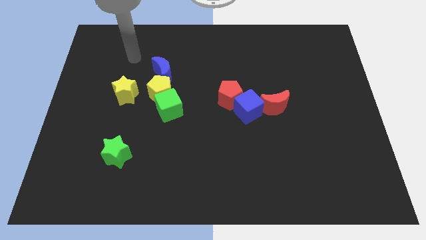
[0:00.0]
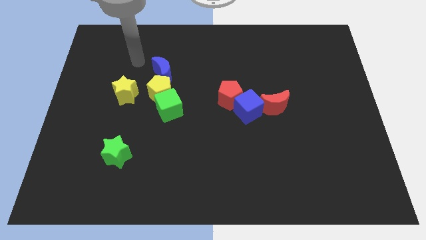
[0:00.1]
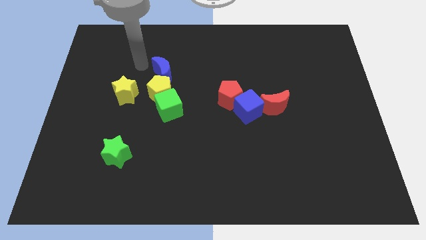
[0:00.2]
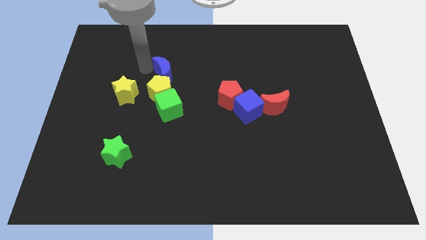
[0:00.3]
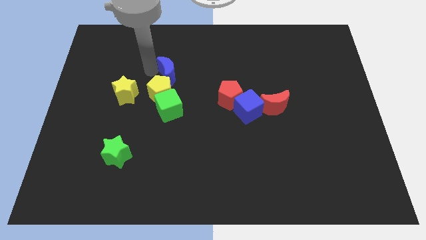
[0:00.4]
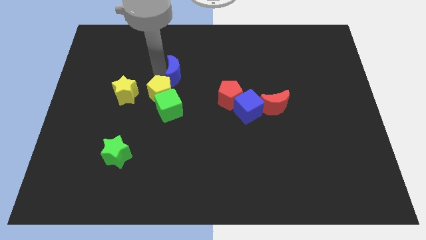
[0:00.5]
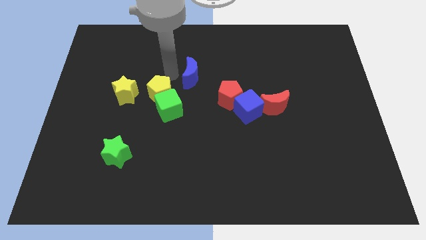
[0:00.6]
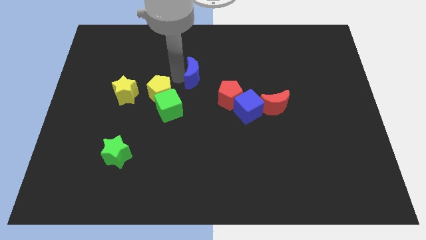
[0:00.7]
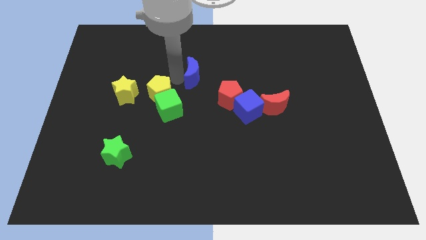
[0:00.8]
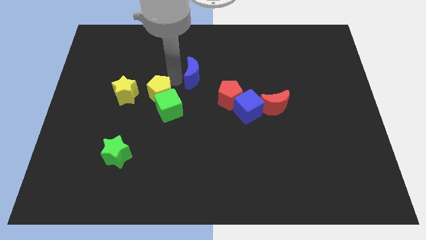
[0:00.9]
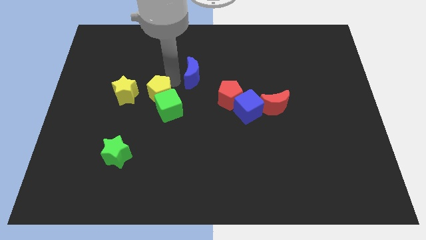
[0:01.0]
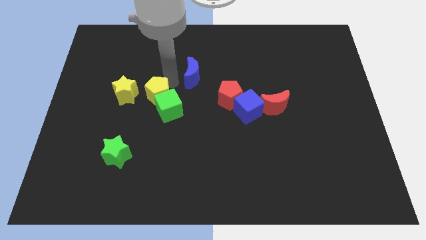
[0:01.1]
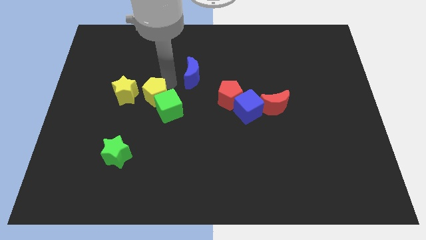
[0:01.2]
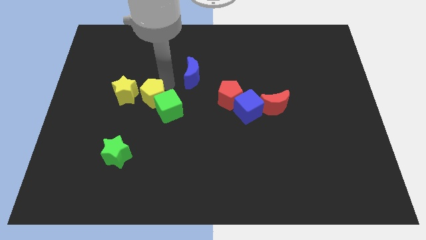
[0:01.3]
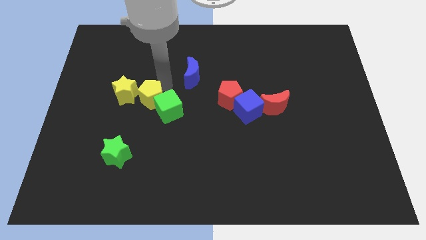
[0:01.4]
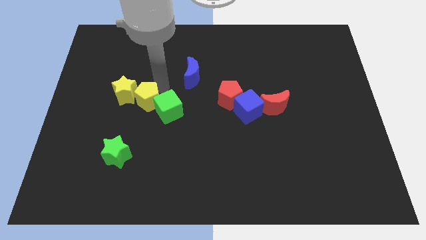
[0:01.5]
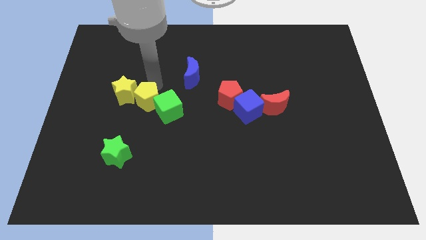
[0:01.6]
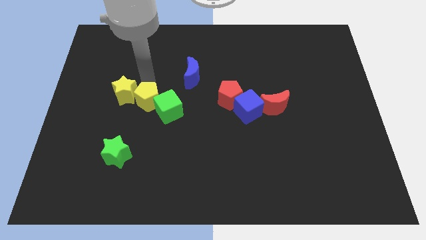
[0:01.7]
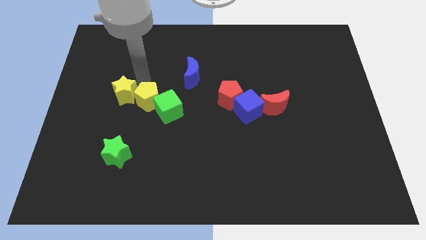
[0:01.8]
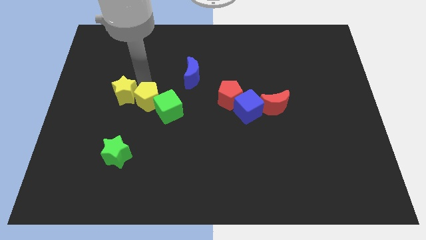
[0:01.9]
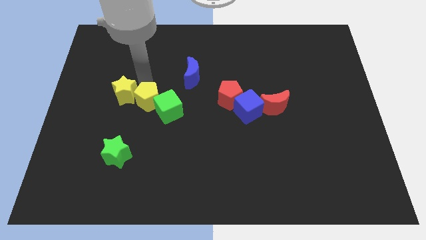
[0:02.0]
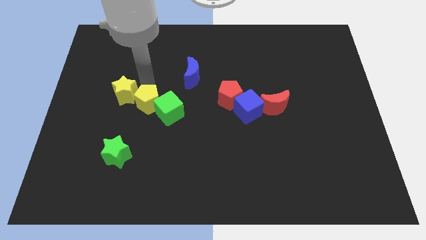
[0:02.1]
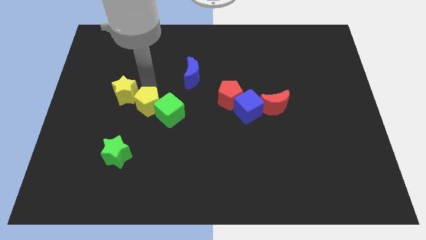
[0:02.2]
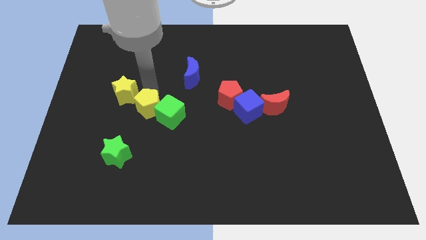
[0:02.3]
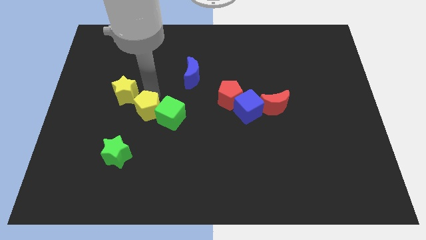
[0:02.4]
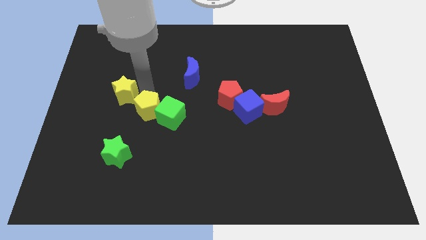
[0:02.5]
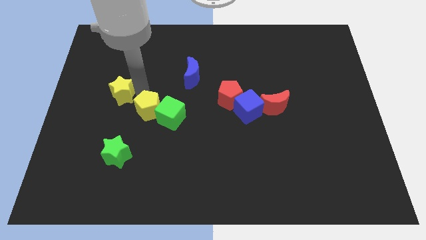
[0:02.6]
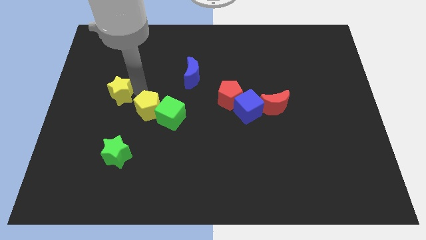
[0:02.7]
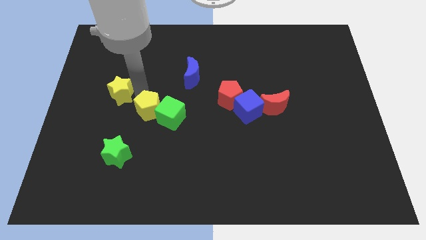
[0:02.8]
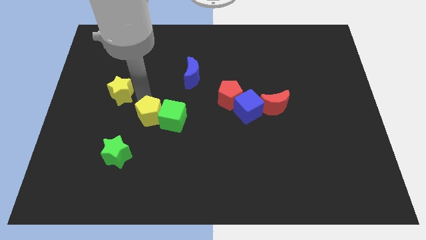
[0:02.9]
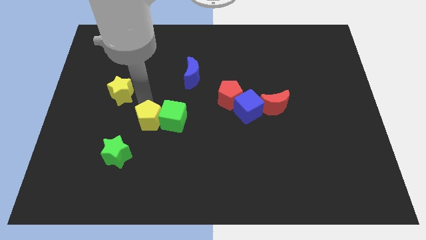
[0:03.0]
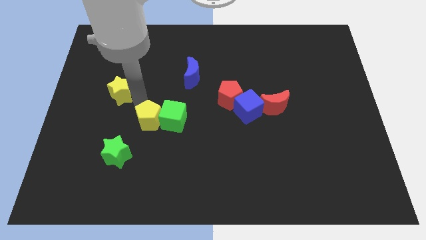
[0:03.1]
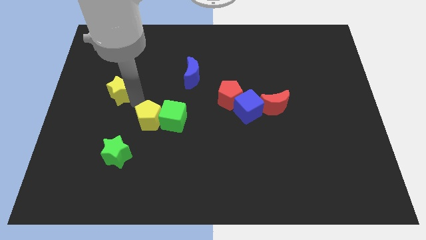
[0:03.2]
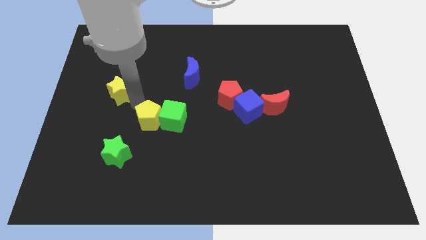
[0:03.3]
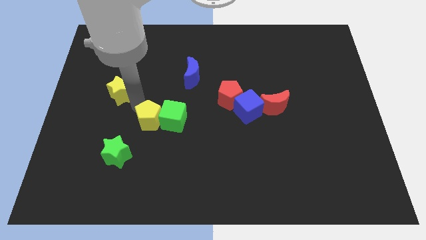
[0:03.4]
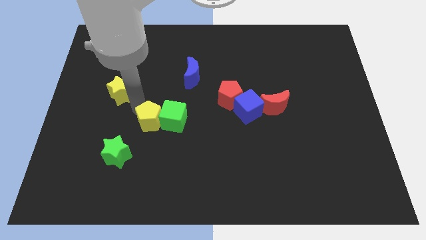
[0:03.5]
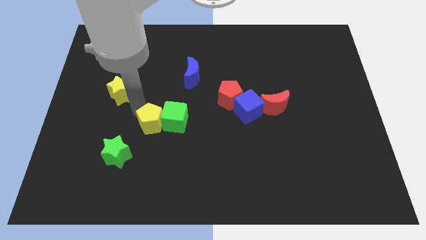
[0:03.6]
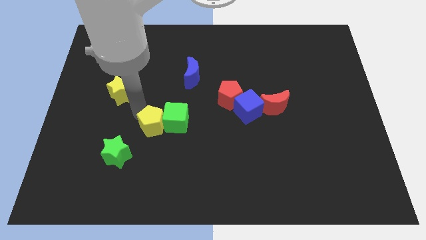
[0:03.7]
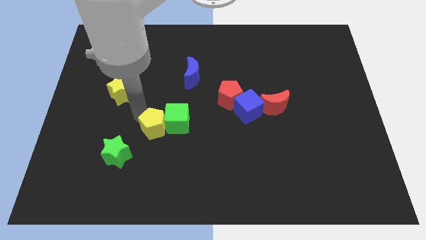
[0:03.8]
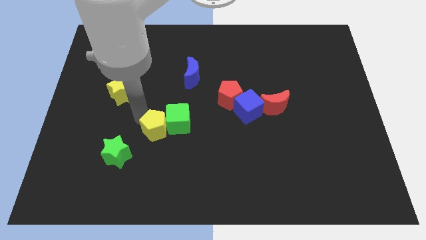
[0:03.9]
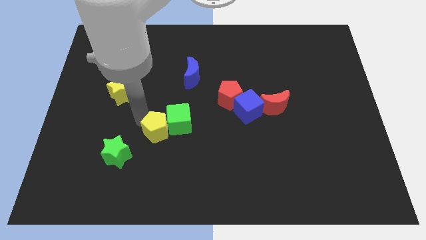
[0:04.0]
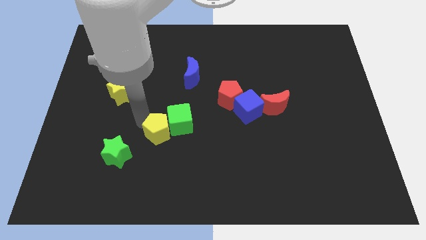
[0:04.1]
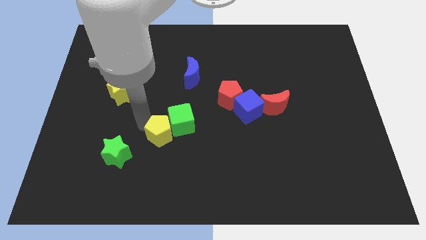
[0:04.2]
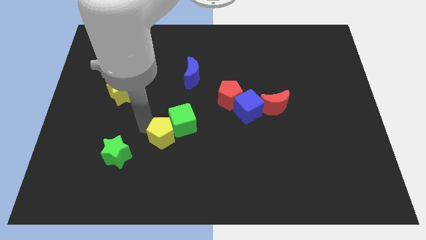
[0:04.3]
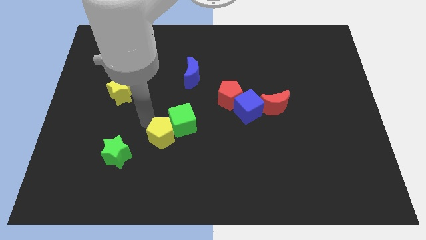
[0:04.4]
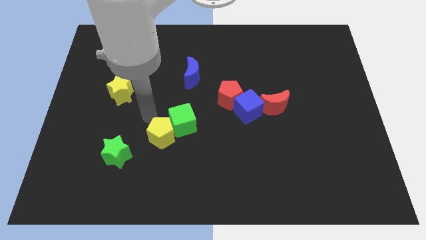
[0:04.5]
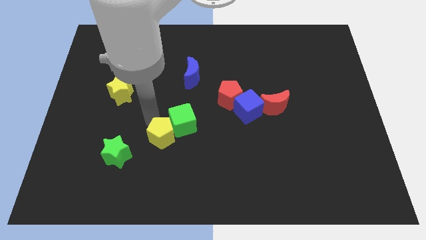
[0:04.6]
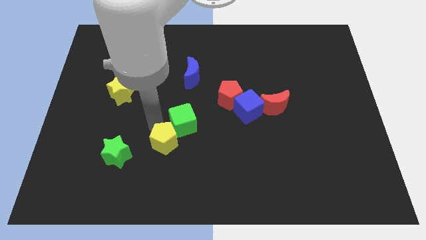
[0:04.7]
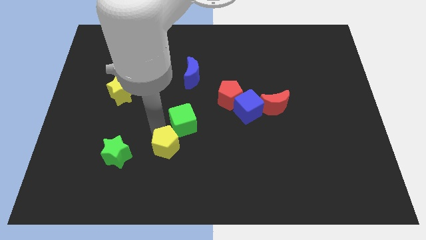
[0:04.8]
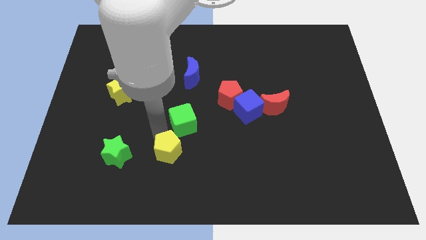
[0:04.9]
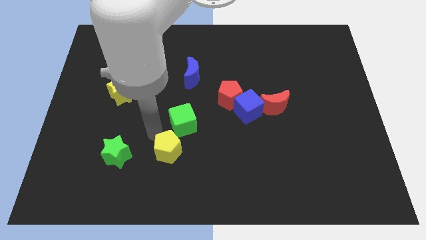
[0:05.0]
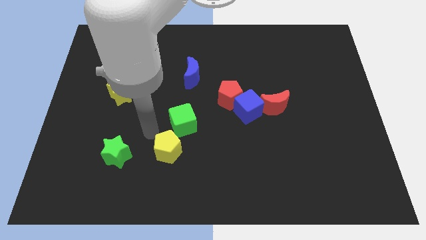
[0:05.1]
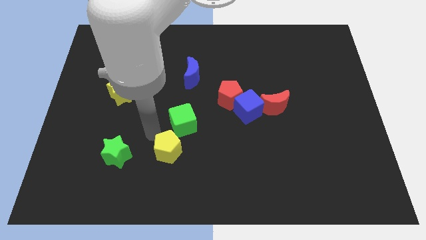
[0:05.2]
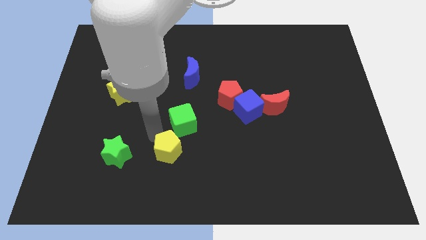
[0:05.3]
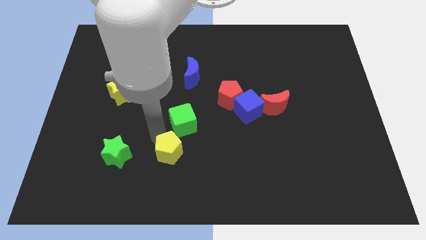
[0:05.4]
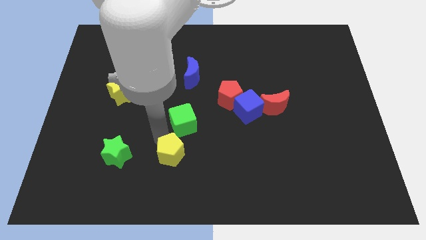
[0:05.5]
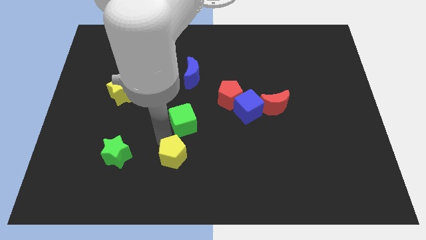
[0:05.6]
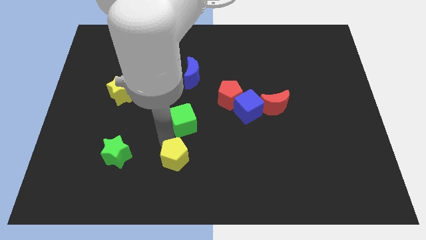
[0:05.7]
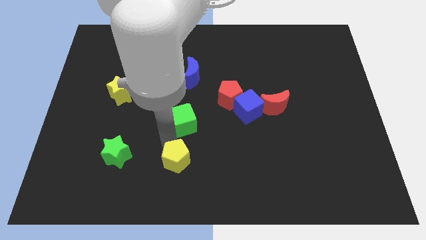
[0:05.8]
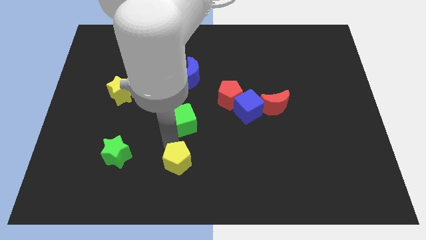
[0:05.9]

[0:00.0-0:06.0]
push the yellow pentagon to the bottom
